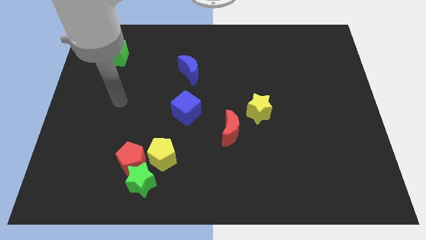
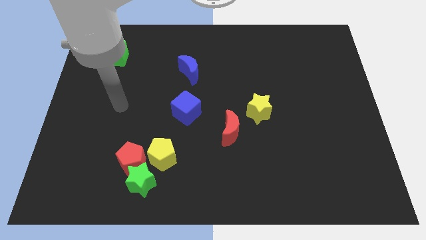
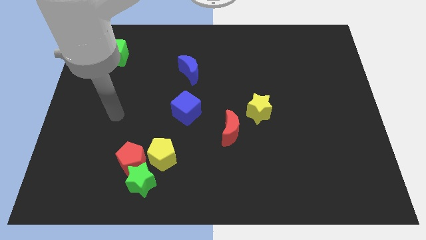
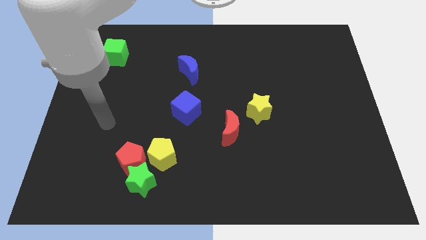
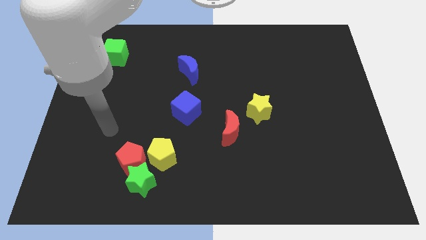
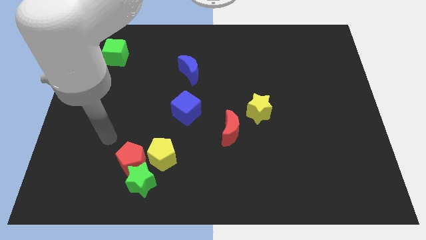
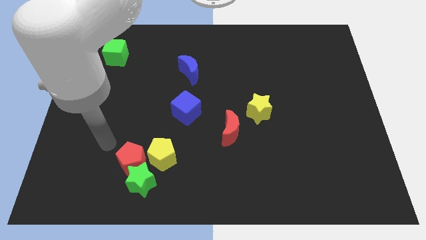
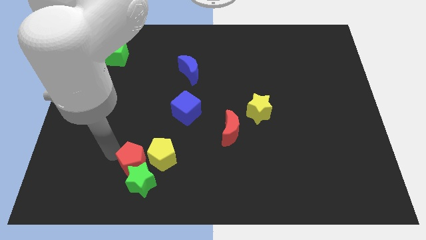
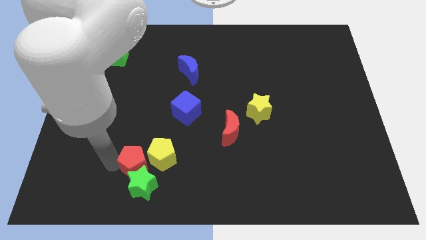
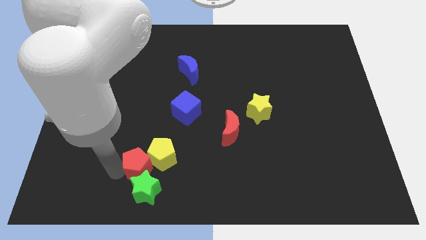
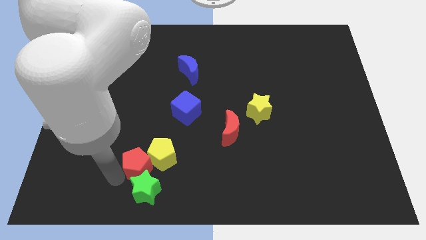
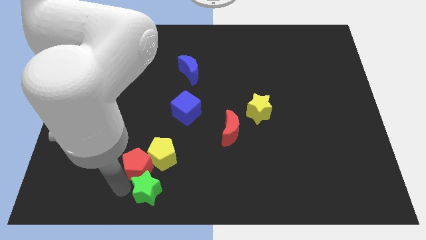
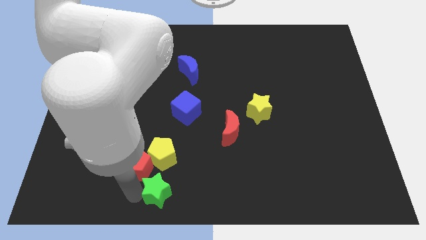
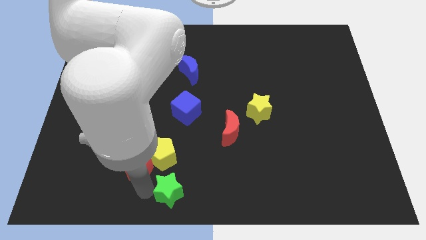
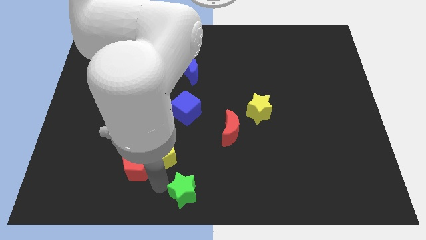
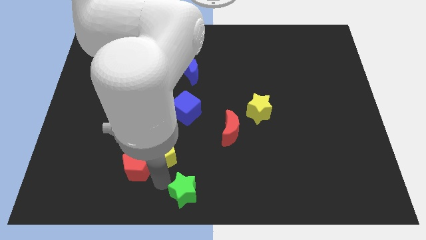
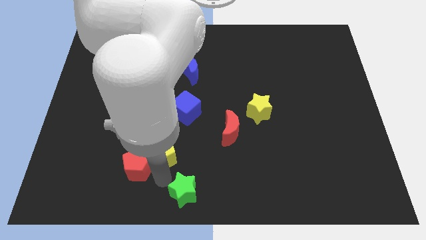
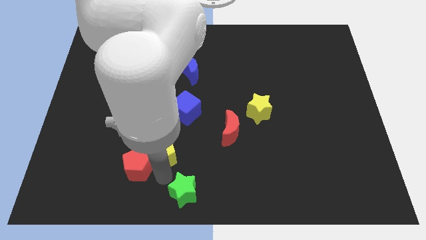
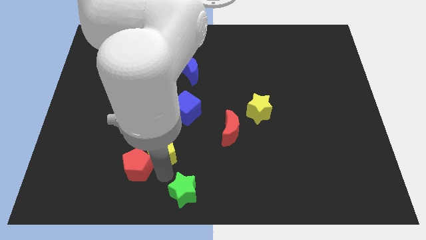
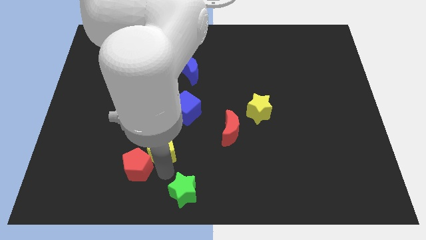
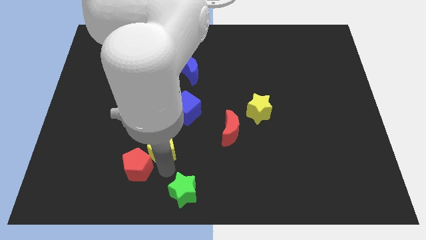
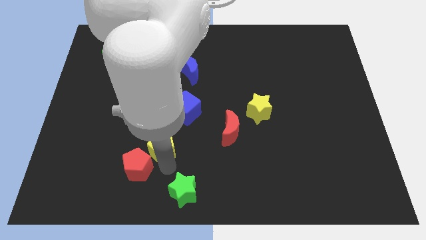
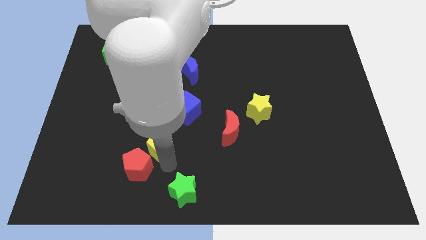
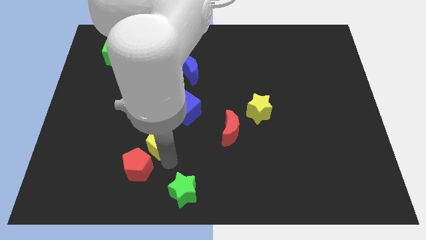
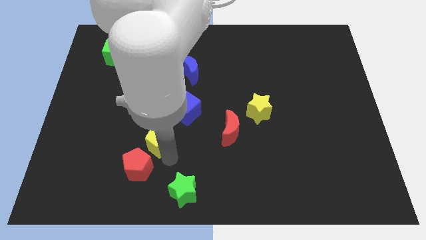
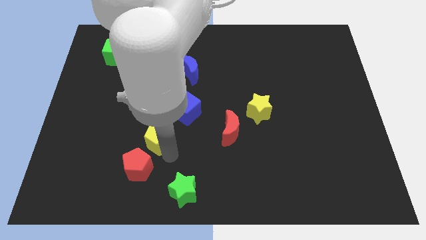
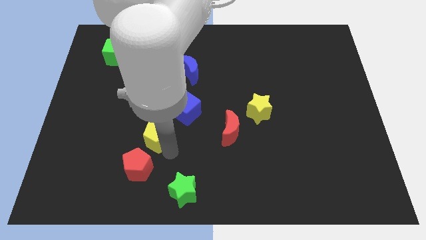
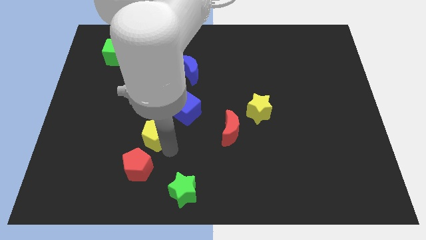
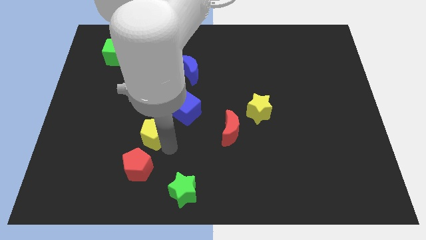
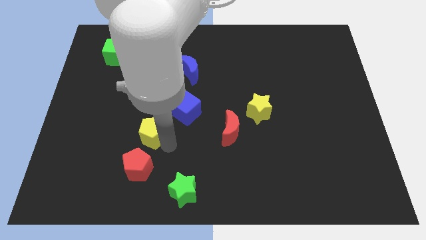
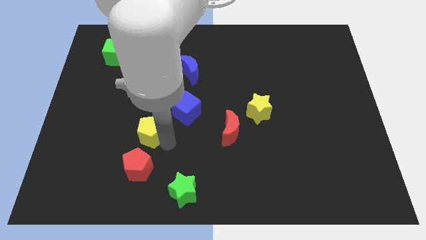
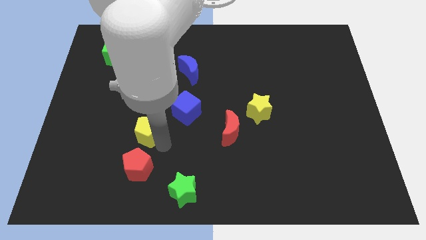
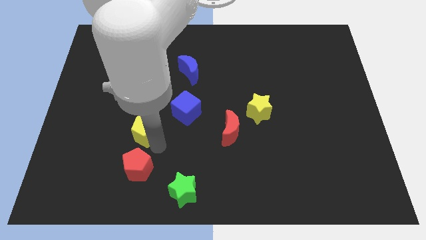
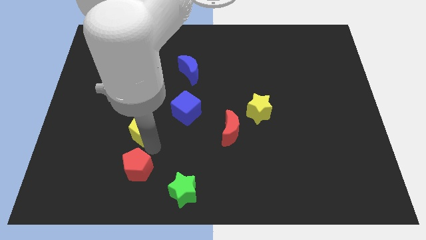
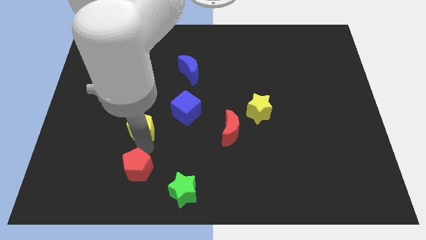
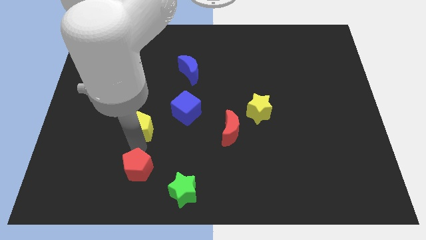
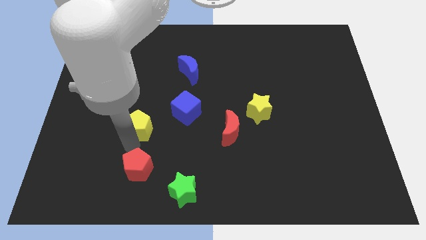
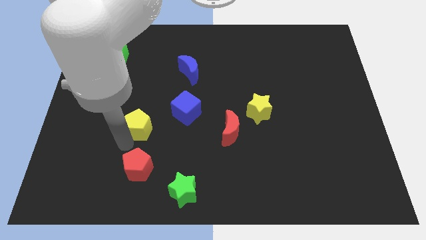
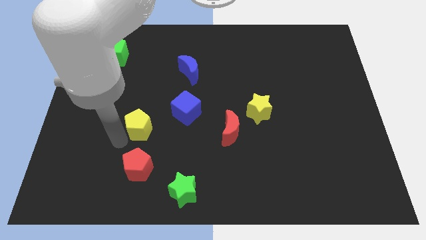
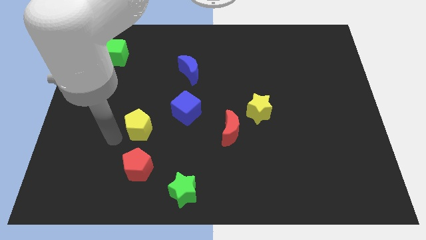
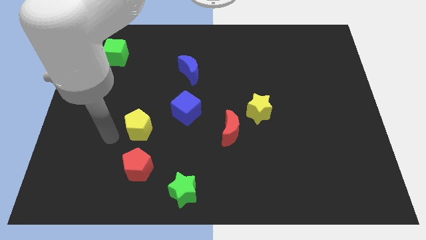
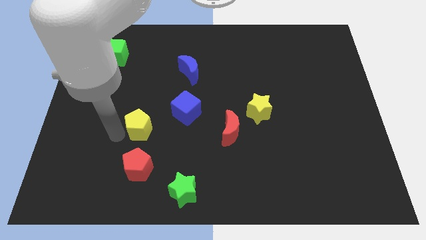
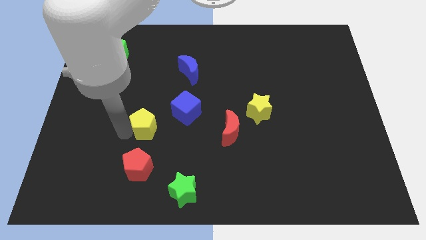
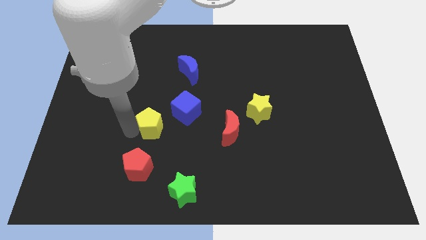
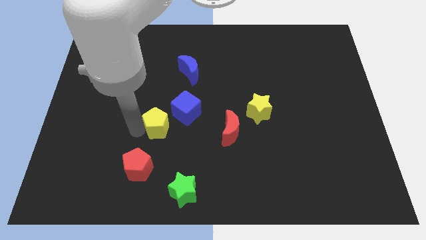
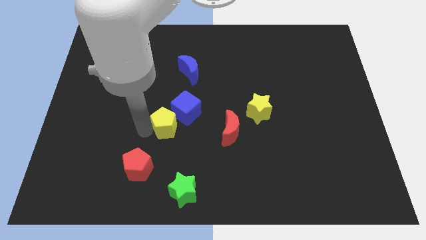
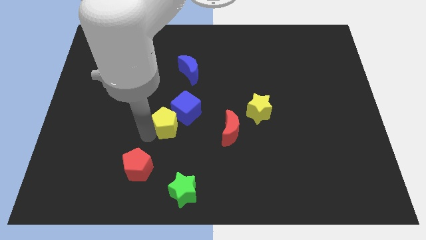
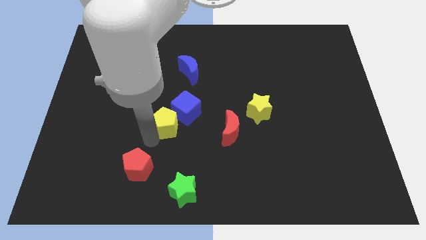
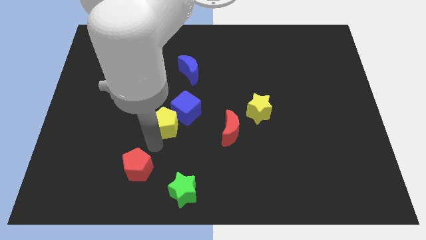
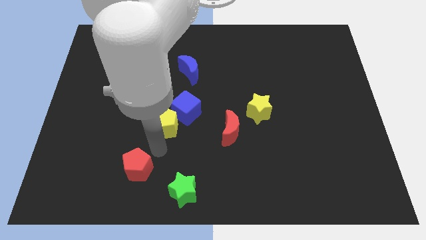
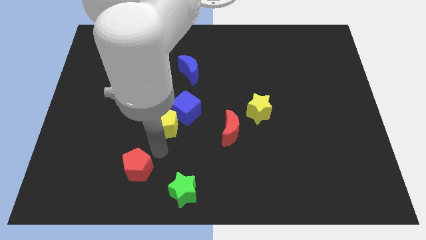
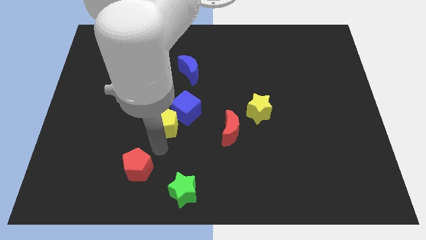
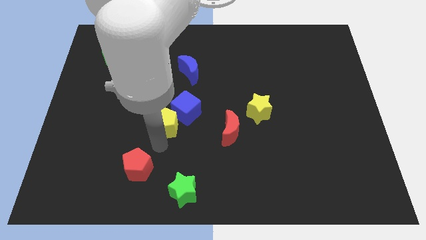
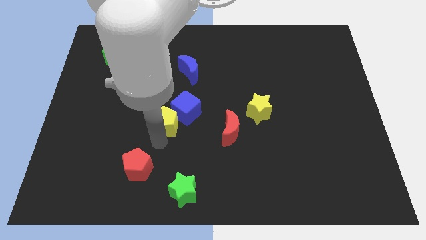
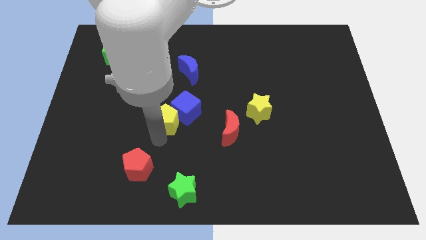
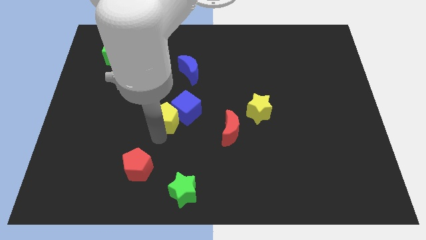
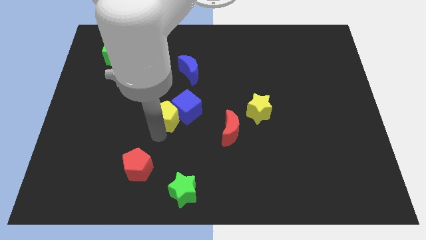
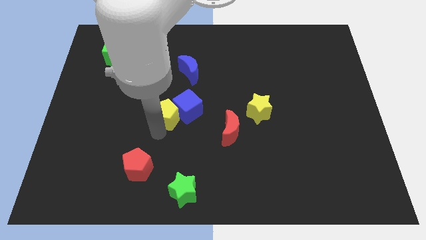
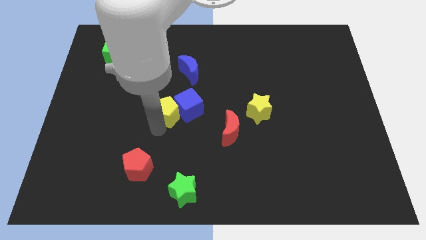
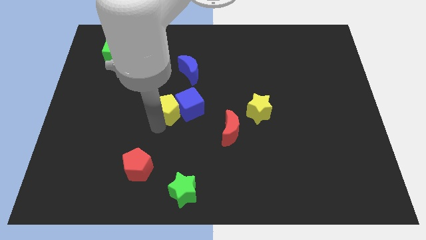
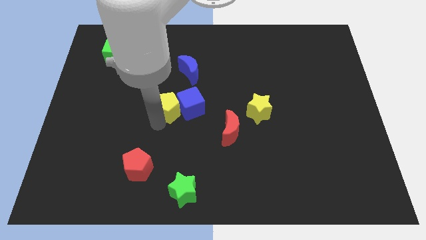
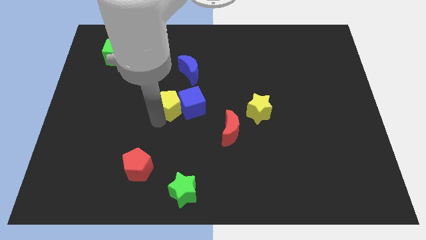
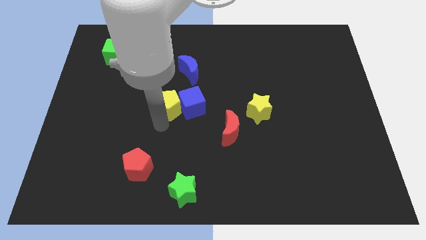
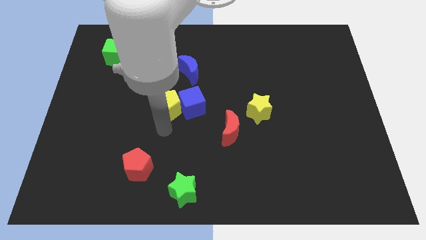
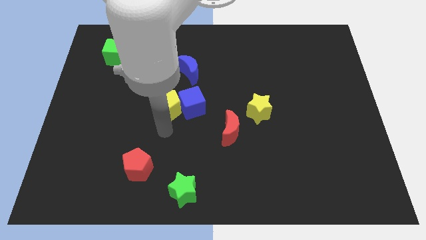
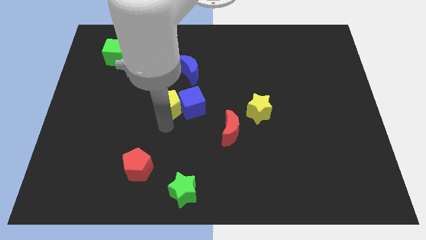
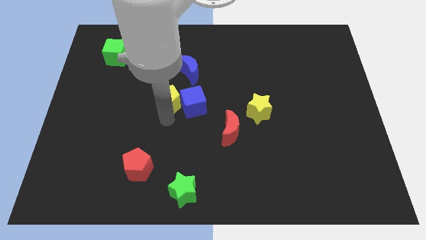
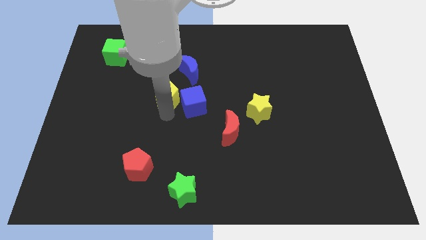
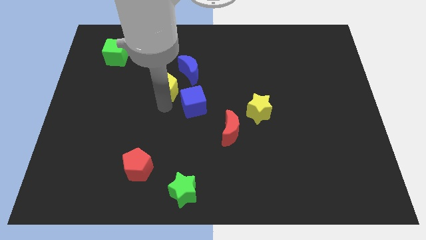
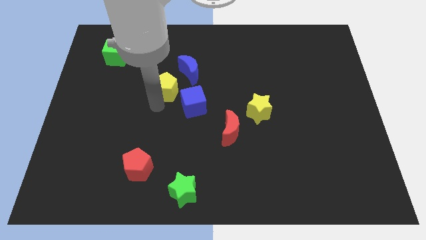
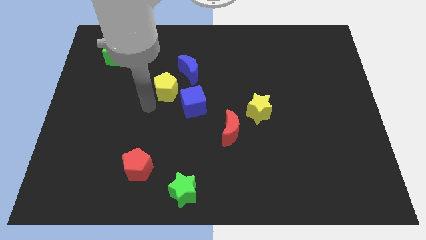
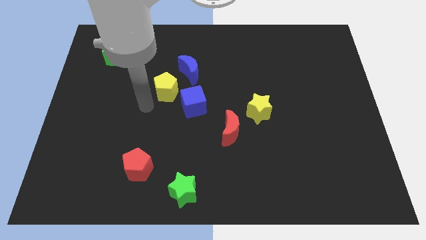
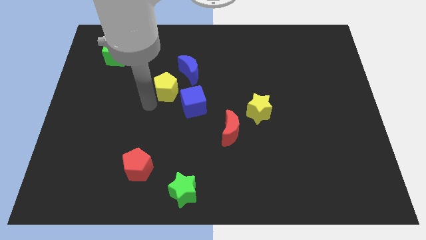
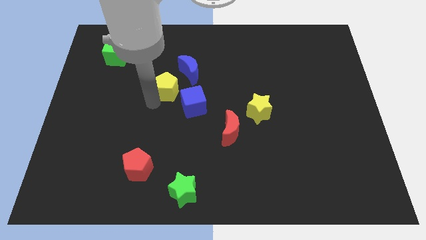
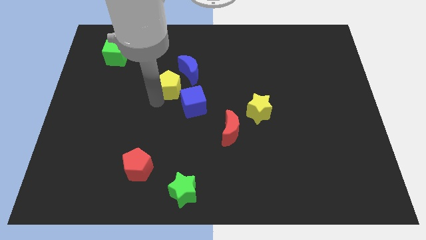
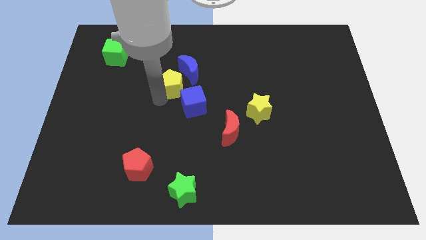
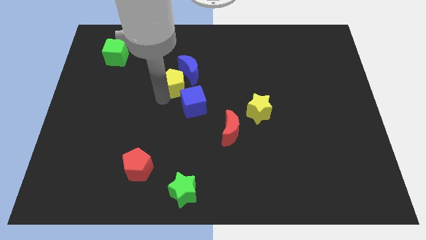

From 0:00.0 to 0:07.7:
slide the yellow pentagon close to the blue moon
